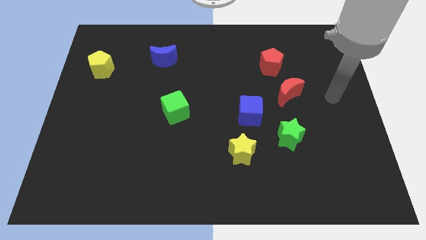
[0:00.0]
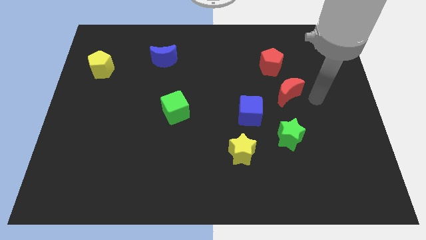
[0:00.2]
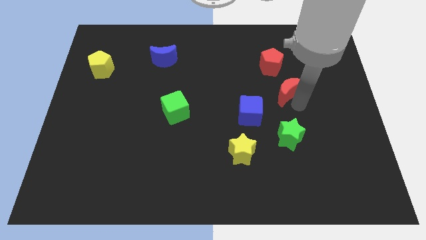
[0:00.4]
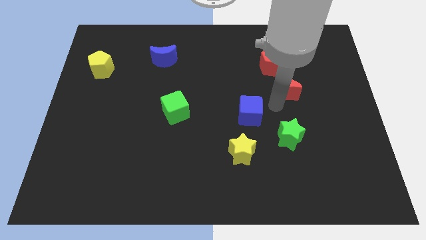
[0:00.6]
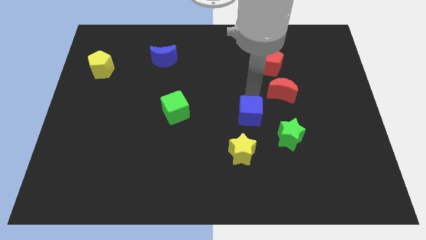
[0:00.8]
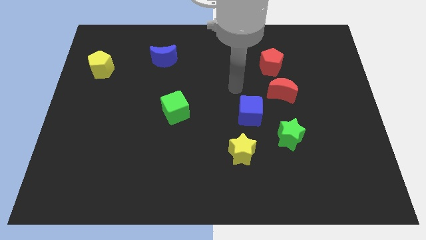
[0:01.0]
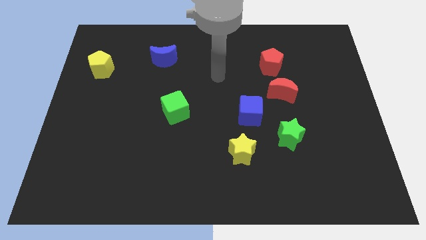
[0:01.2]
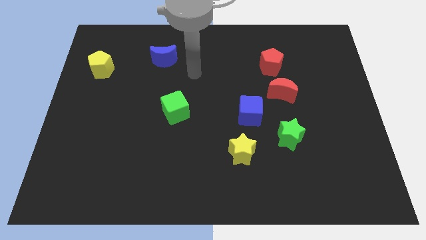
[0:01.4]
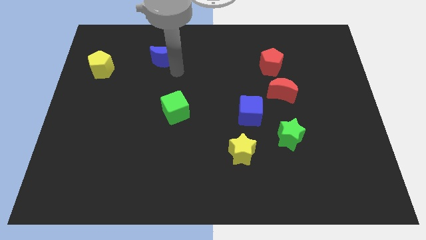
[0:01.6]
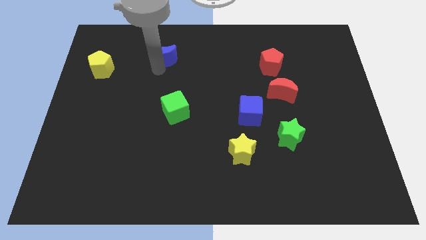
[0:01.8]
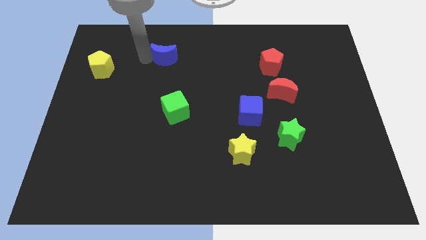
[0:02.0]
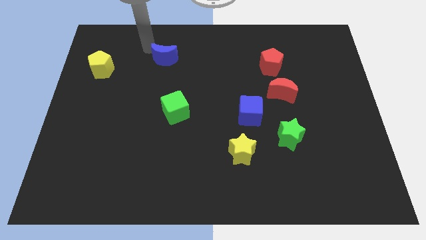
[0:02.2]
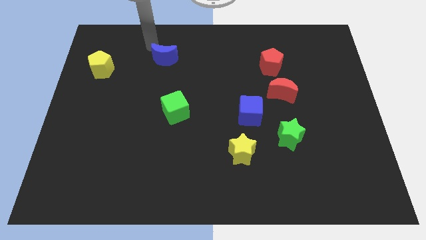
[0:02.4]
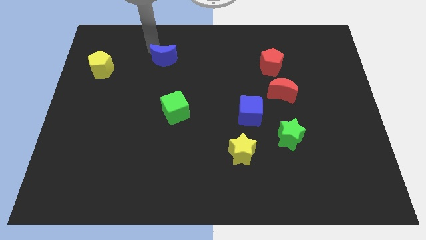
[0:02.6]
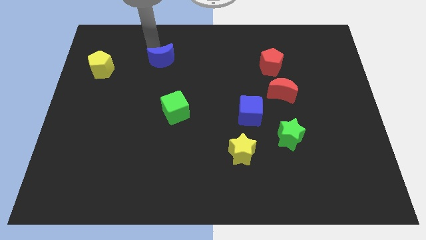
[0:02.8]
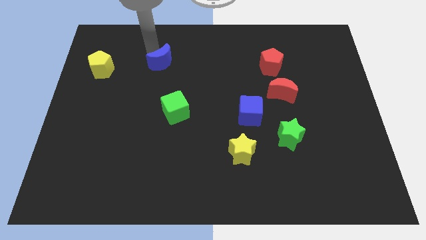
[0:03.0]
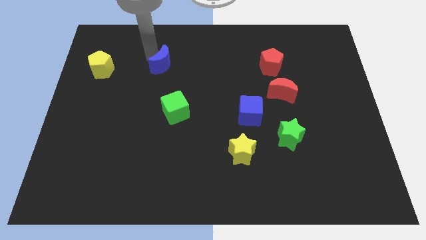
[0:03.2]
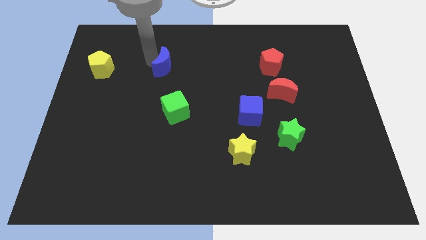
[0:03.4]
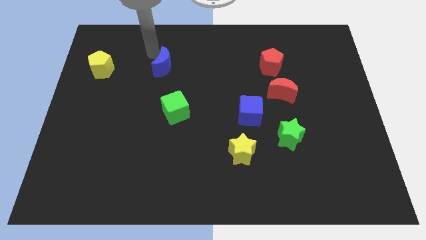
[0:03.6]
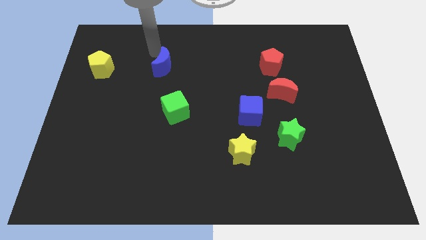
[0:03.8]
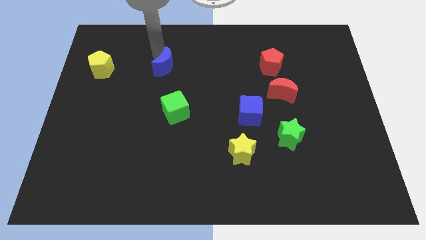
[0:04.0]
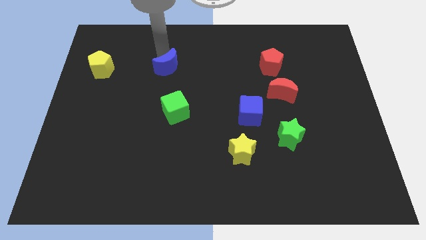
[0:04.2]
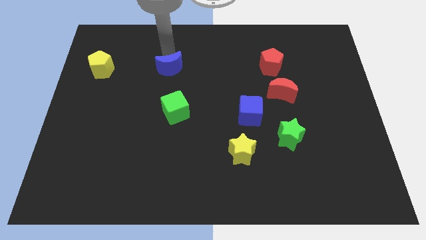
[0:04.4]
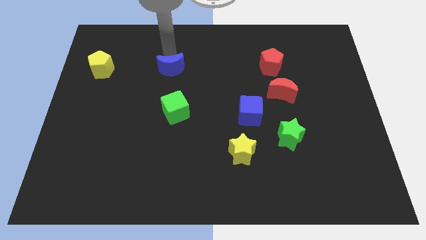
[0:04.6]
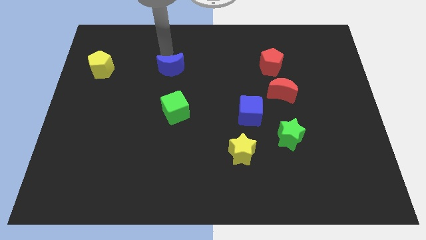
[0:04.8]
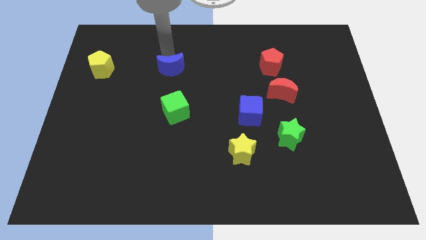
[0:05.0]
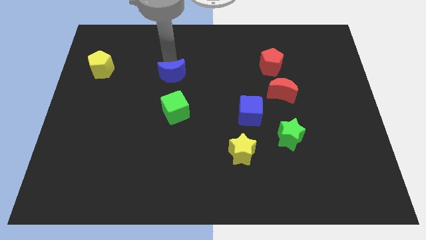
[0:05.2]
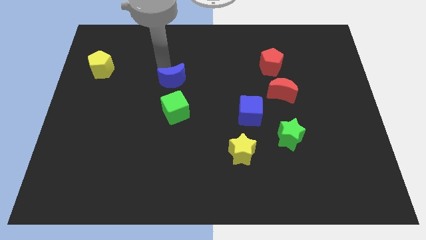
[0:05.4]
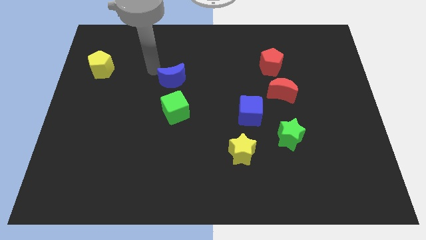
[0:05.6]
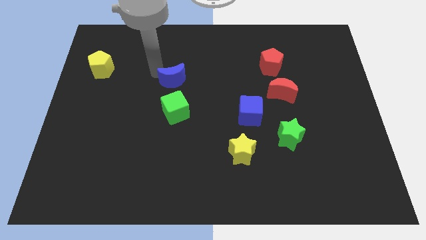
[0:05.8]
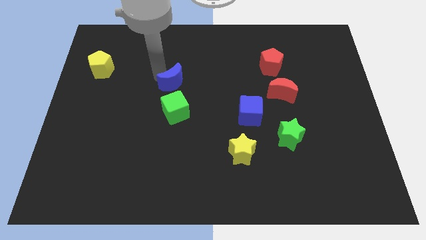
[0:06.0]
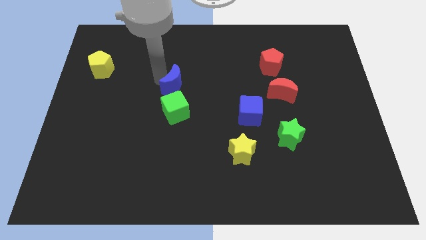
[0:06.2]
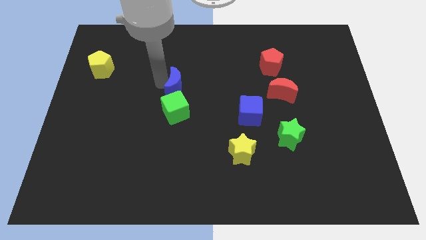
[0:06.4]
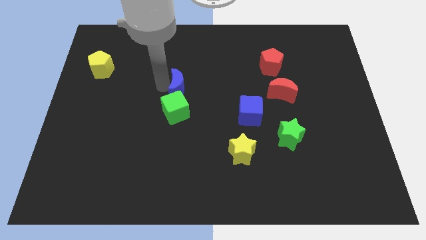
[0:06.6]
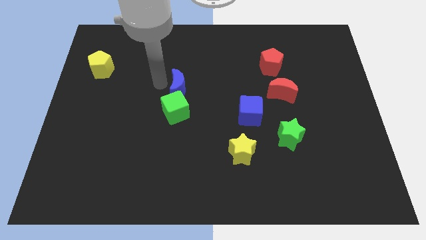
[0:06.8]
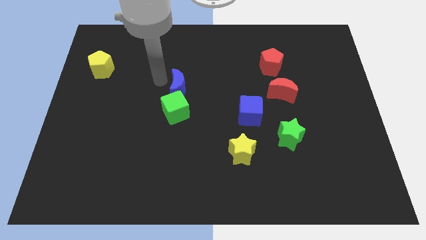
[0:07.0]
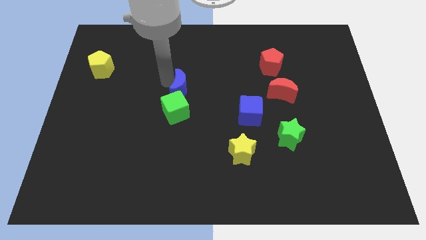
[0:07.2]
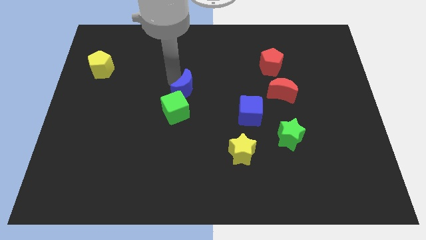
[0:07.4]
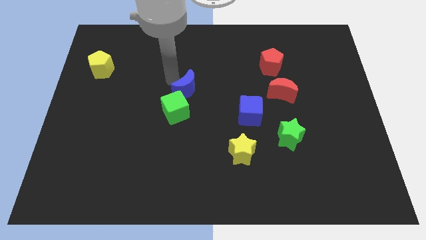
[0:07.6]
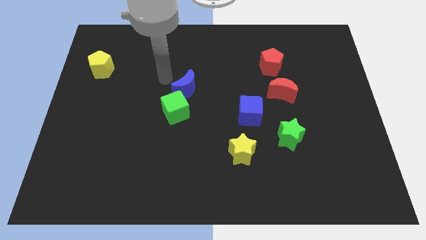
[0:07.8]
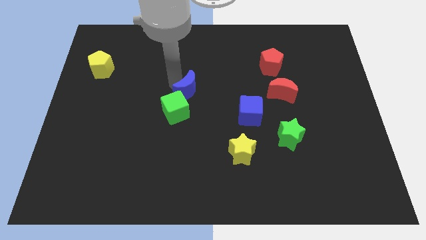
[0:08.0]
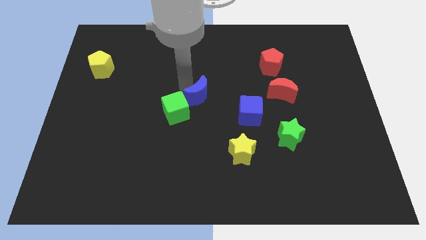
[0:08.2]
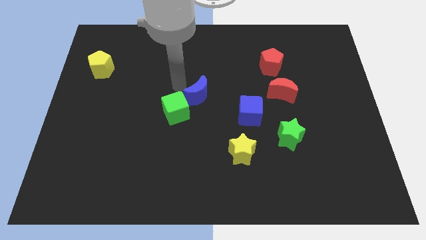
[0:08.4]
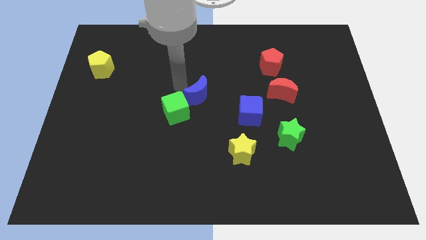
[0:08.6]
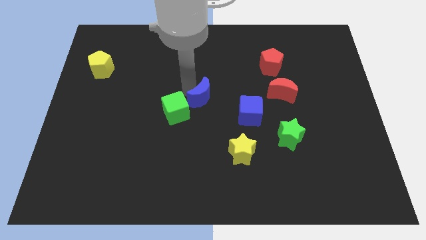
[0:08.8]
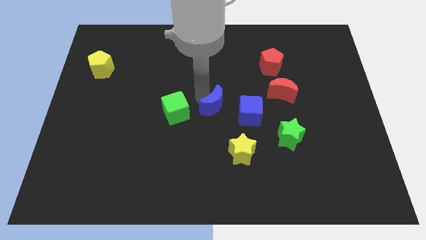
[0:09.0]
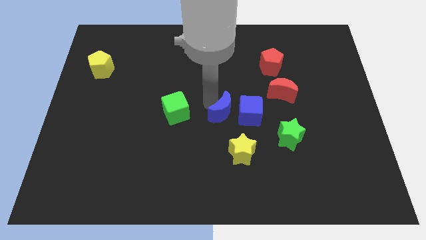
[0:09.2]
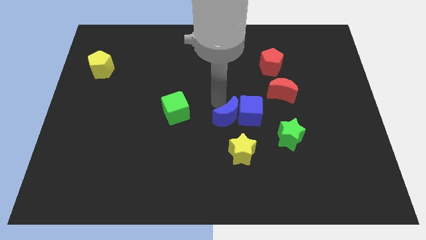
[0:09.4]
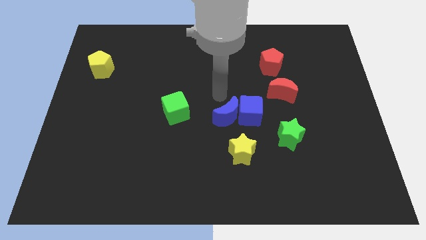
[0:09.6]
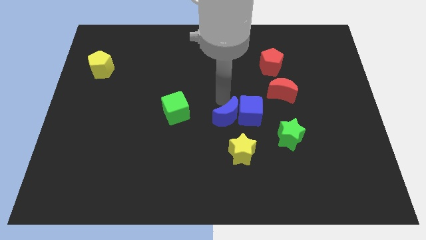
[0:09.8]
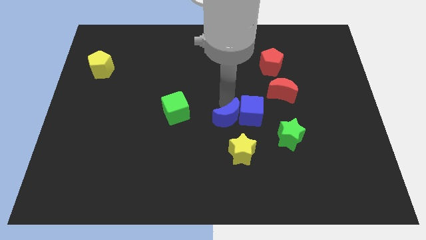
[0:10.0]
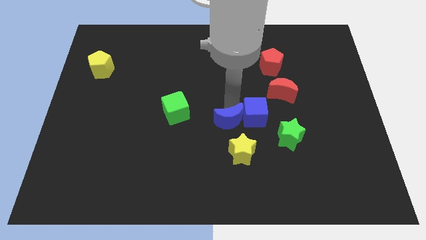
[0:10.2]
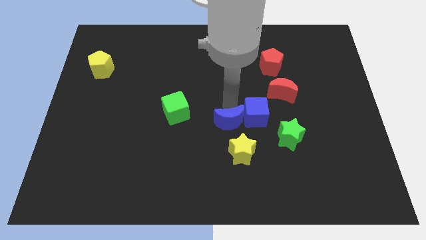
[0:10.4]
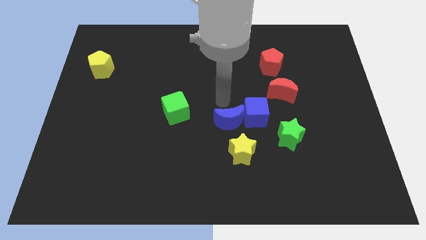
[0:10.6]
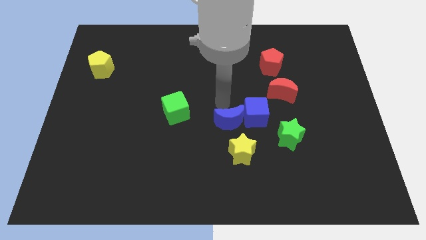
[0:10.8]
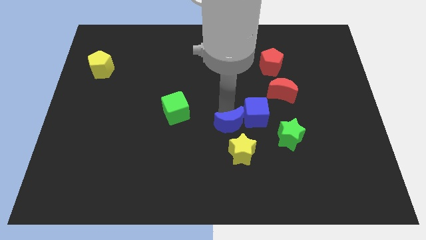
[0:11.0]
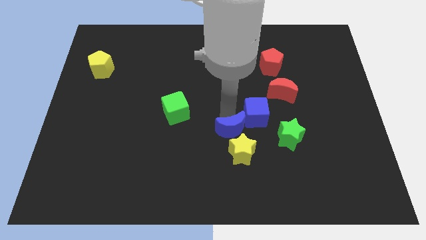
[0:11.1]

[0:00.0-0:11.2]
put the blue moon close to the yellow star

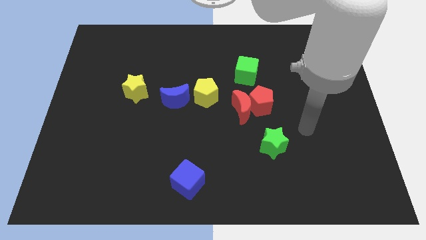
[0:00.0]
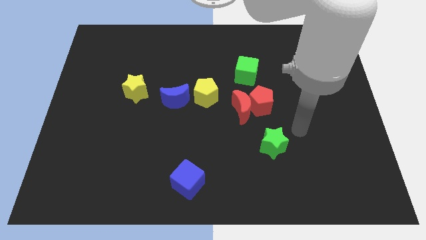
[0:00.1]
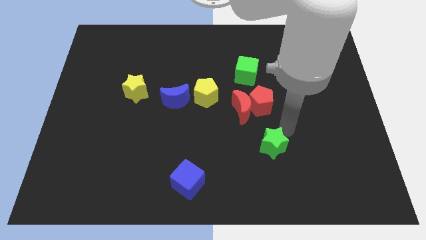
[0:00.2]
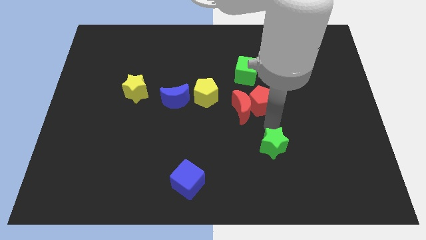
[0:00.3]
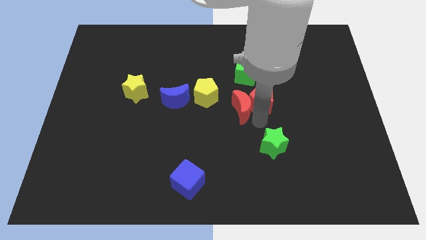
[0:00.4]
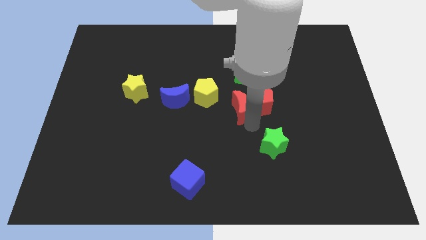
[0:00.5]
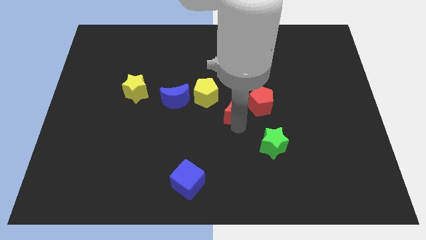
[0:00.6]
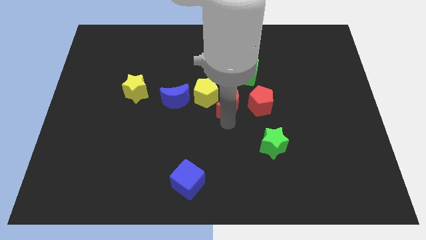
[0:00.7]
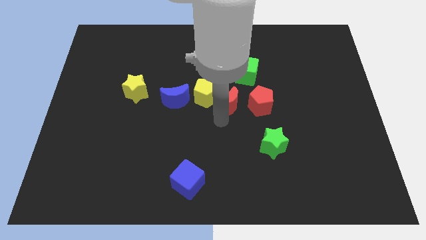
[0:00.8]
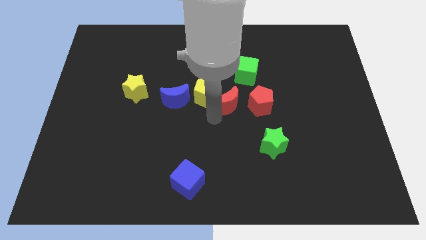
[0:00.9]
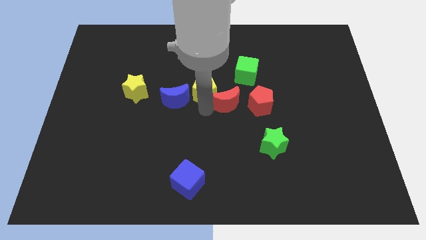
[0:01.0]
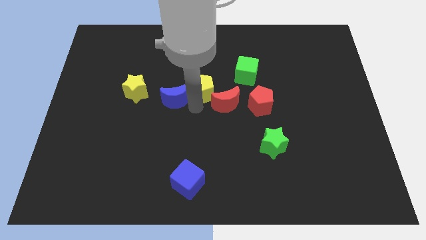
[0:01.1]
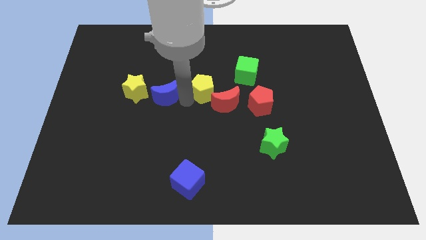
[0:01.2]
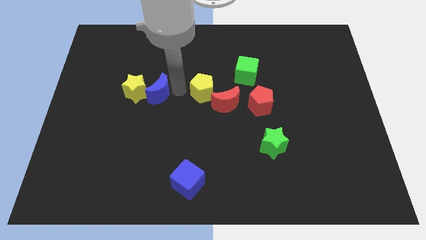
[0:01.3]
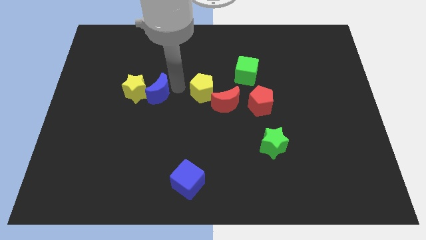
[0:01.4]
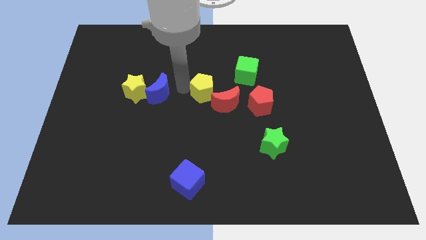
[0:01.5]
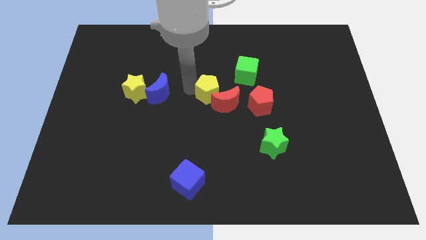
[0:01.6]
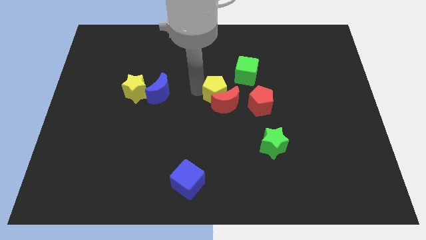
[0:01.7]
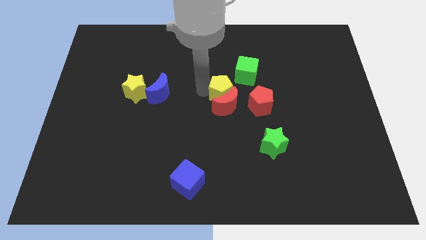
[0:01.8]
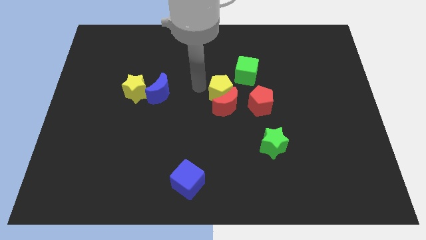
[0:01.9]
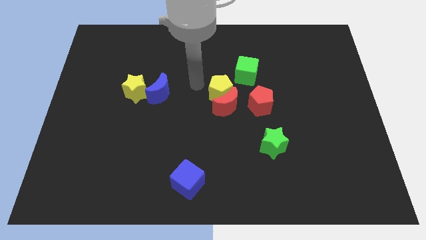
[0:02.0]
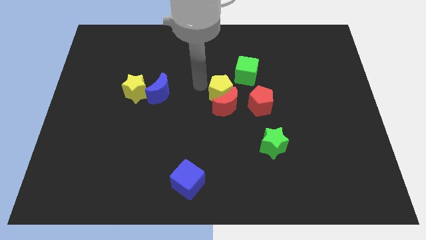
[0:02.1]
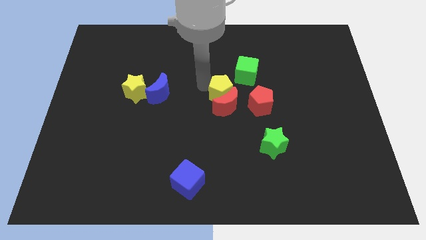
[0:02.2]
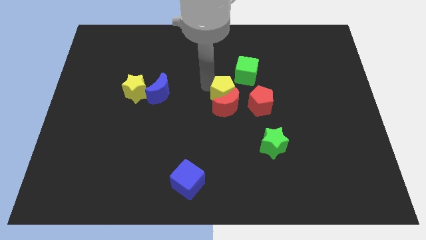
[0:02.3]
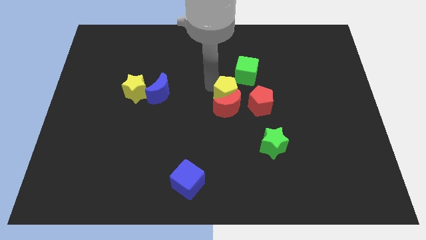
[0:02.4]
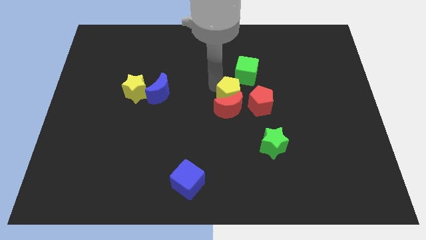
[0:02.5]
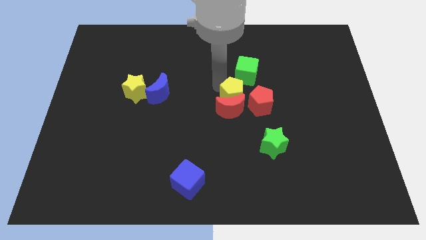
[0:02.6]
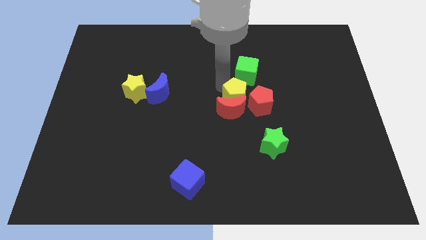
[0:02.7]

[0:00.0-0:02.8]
slide the yellow pentagon towards the red pentagon
